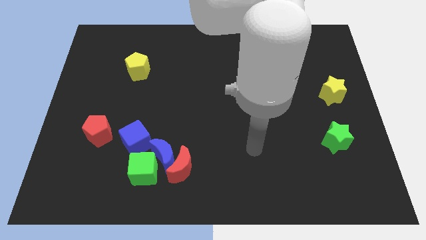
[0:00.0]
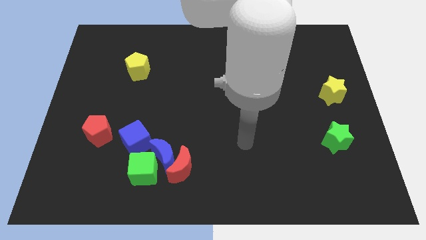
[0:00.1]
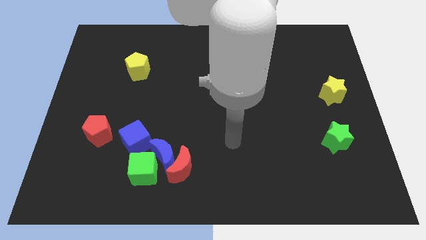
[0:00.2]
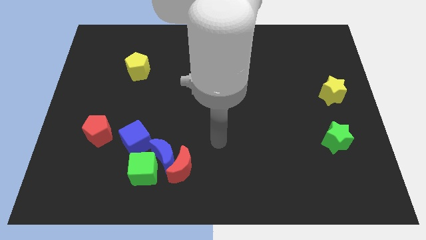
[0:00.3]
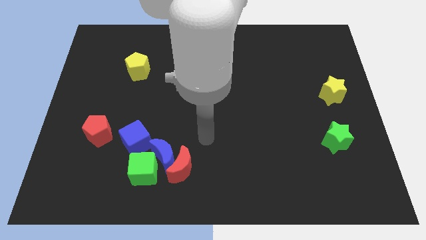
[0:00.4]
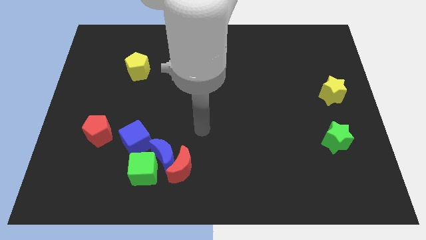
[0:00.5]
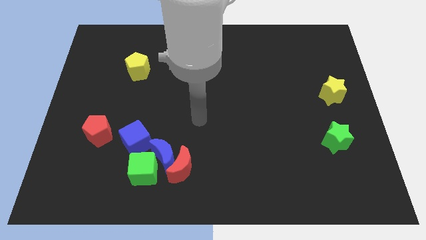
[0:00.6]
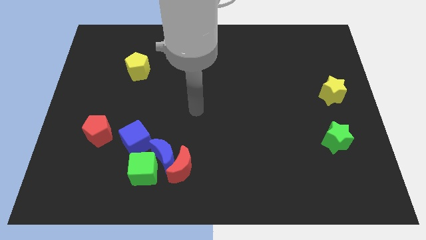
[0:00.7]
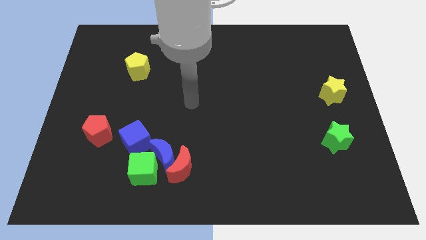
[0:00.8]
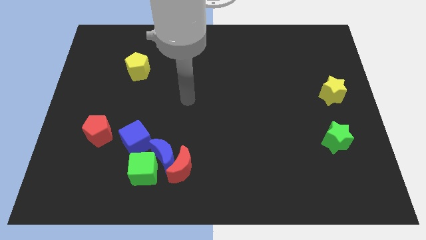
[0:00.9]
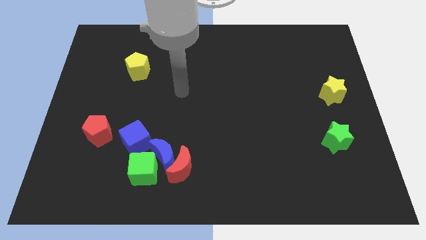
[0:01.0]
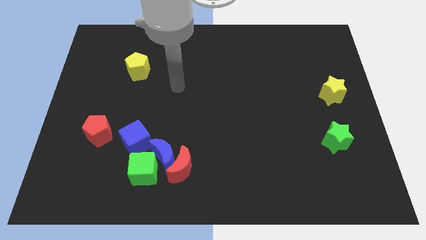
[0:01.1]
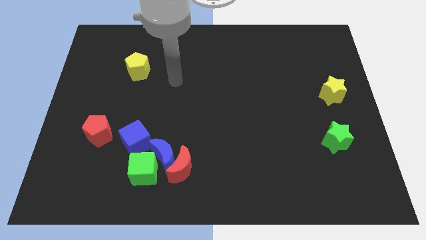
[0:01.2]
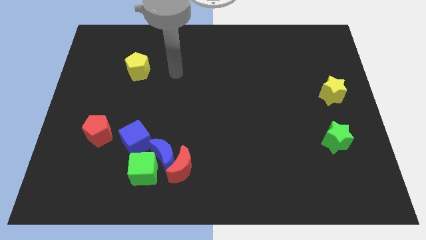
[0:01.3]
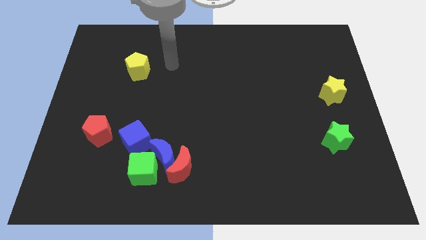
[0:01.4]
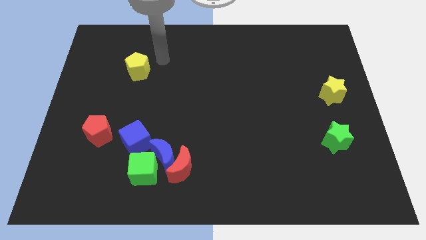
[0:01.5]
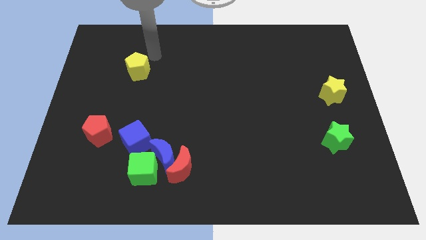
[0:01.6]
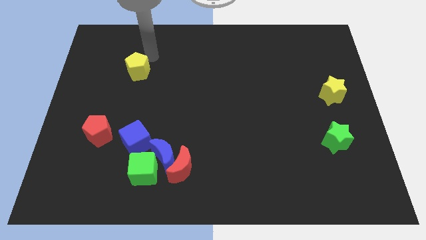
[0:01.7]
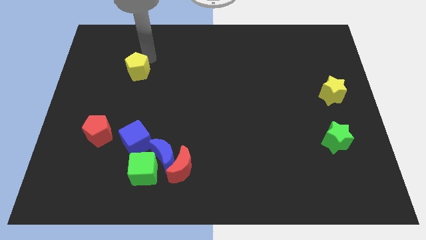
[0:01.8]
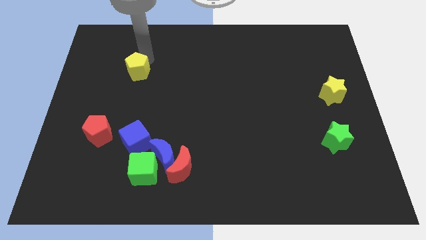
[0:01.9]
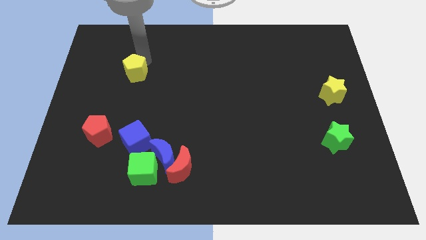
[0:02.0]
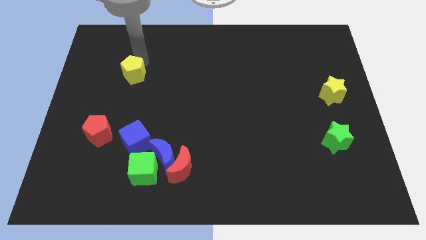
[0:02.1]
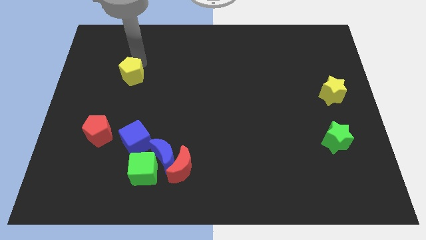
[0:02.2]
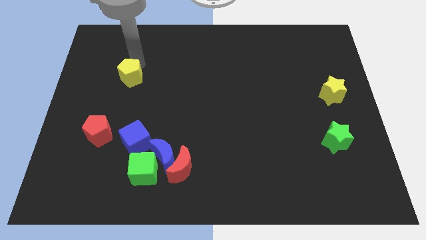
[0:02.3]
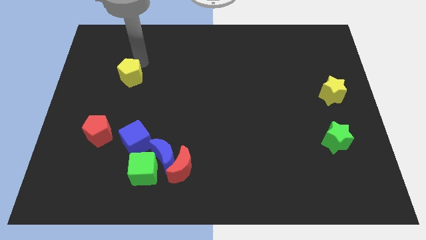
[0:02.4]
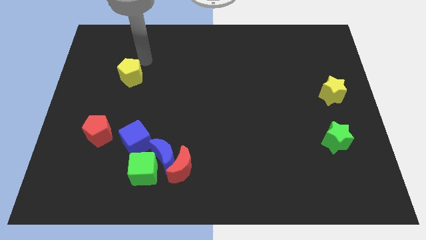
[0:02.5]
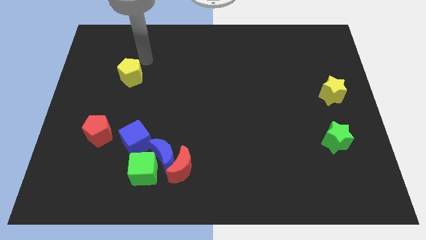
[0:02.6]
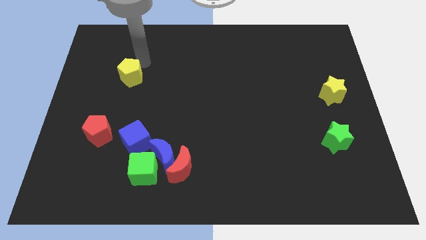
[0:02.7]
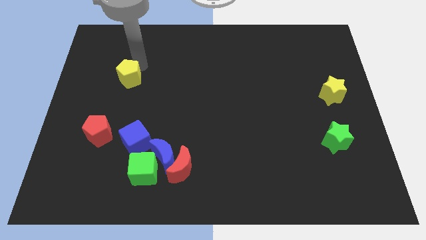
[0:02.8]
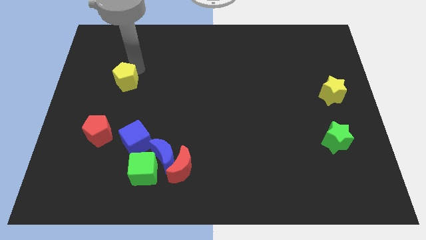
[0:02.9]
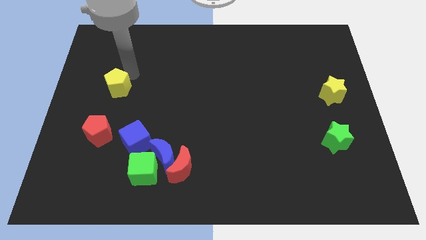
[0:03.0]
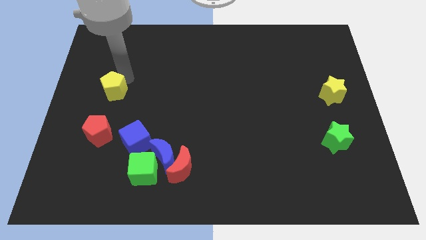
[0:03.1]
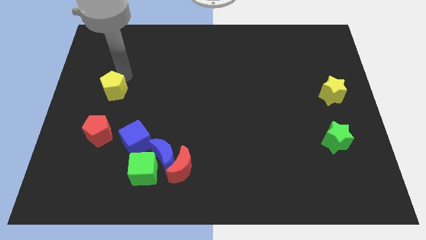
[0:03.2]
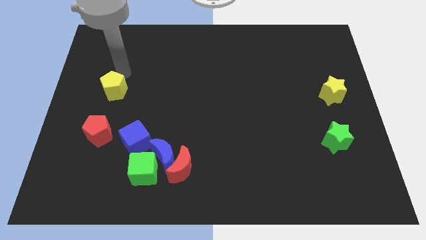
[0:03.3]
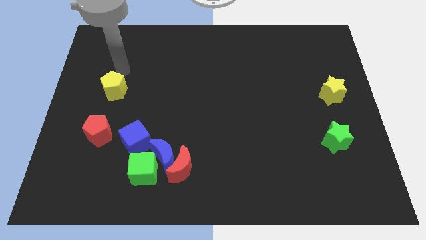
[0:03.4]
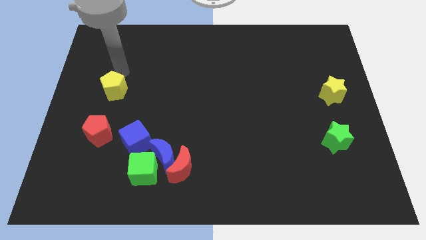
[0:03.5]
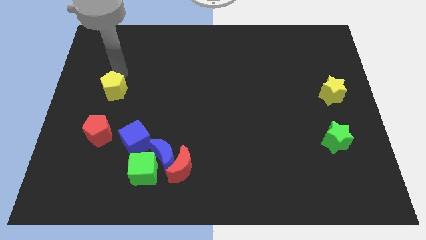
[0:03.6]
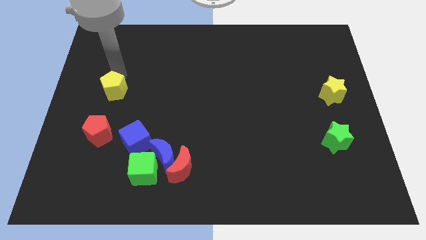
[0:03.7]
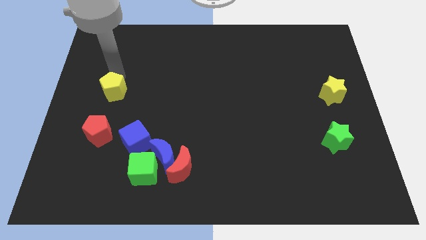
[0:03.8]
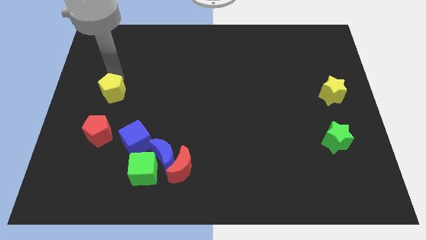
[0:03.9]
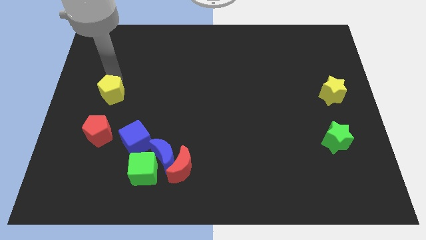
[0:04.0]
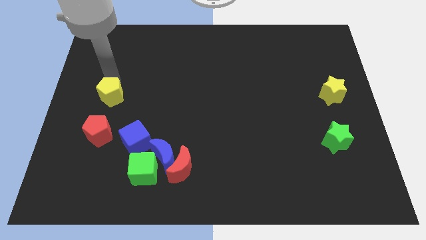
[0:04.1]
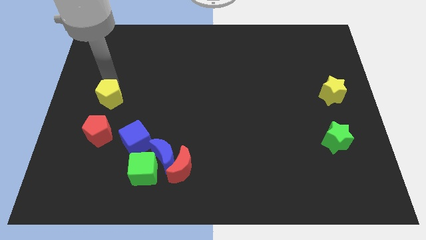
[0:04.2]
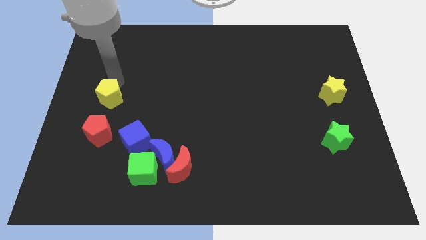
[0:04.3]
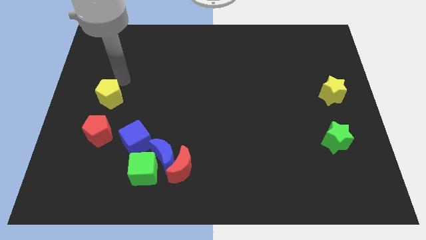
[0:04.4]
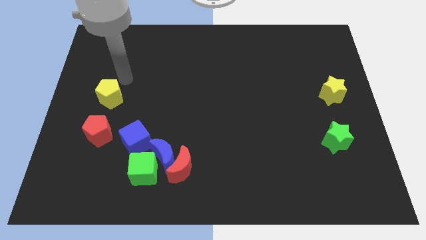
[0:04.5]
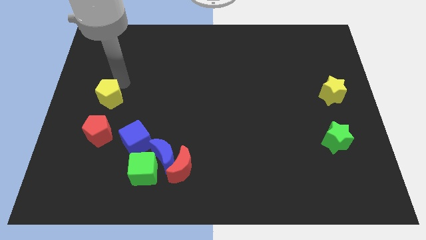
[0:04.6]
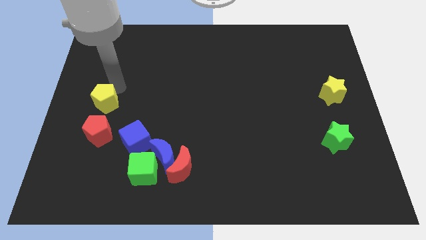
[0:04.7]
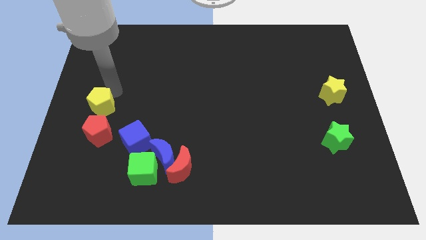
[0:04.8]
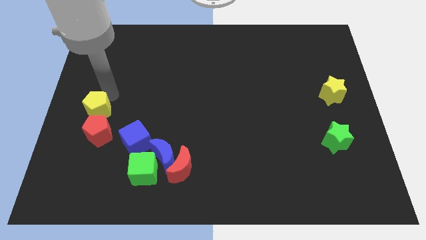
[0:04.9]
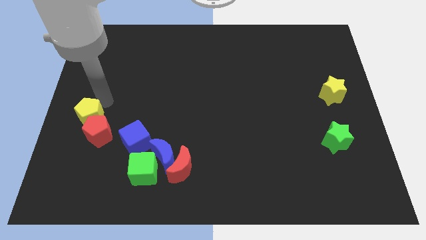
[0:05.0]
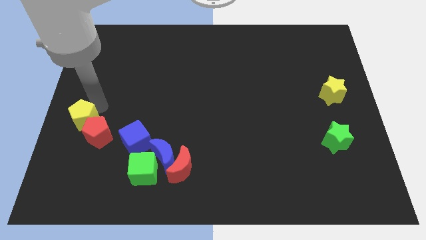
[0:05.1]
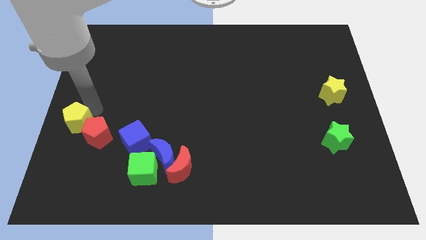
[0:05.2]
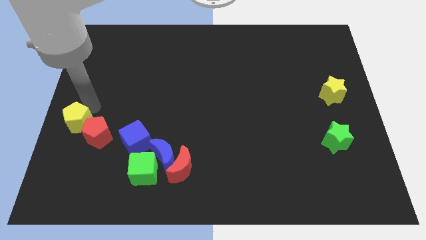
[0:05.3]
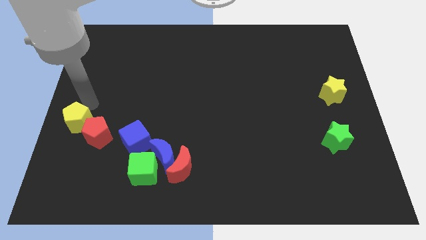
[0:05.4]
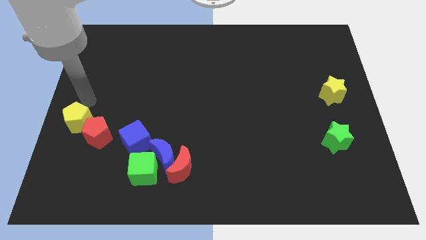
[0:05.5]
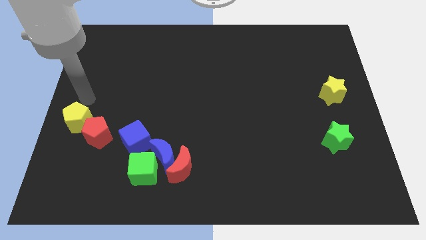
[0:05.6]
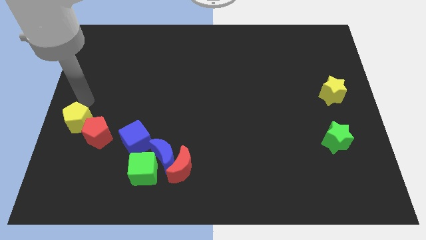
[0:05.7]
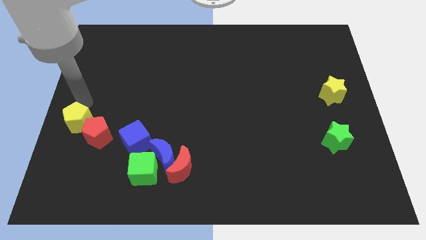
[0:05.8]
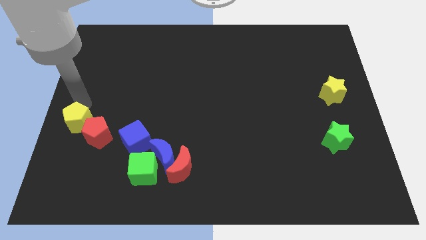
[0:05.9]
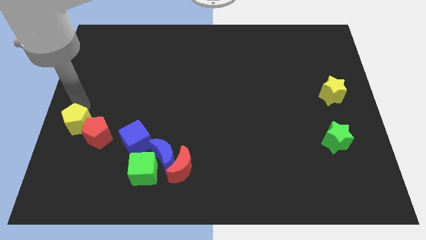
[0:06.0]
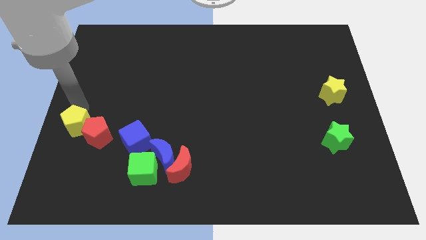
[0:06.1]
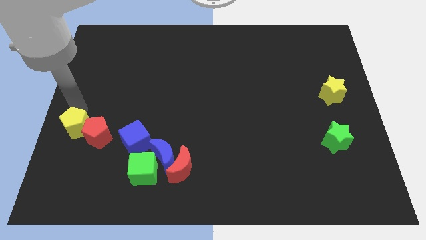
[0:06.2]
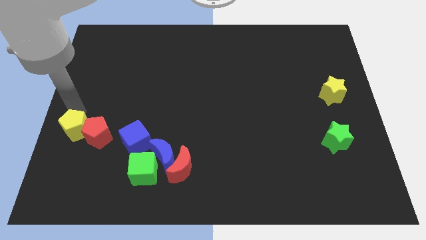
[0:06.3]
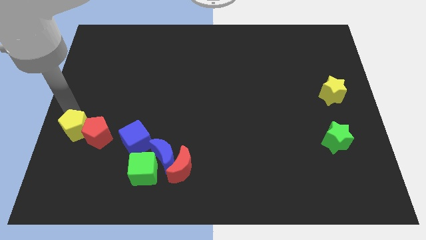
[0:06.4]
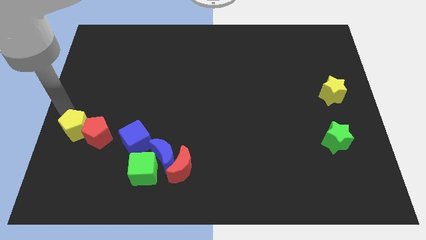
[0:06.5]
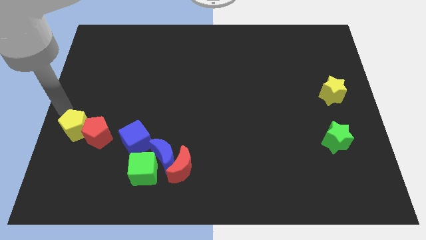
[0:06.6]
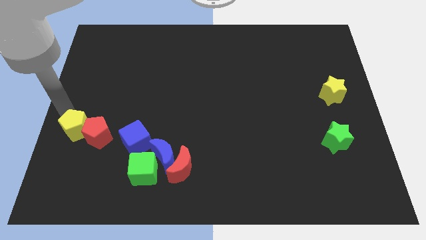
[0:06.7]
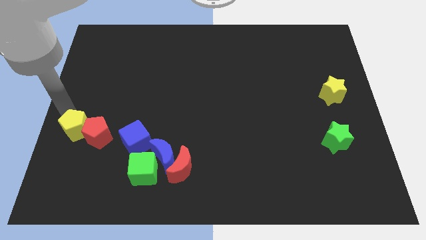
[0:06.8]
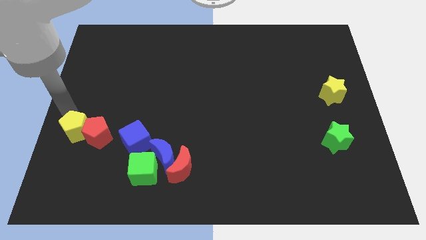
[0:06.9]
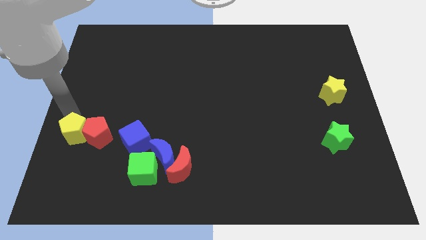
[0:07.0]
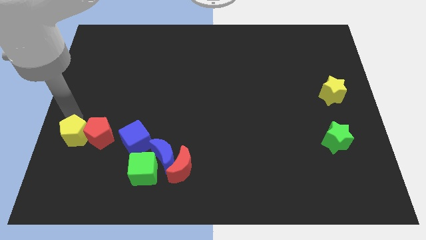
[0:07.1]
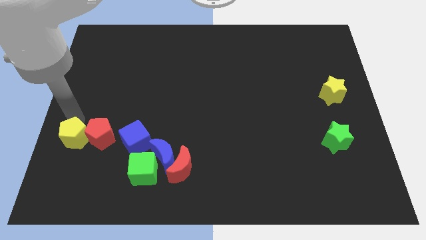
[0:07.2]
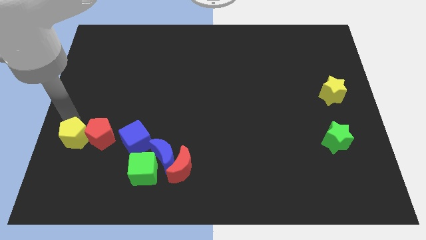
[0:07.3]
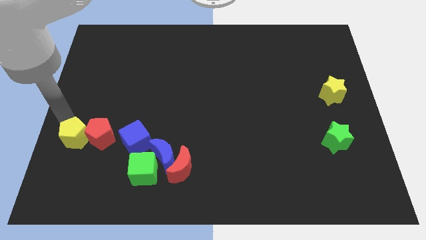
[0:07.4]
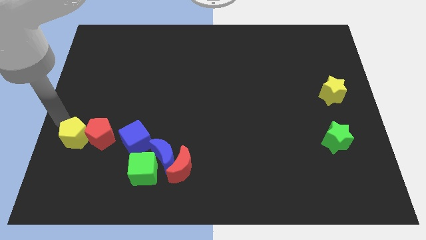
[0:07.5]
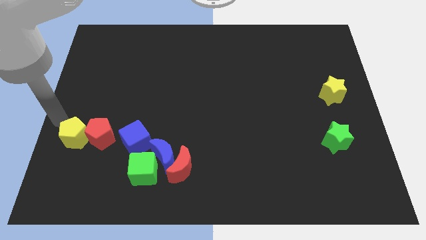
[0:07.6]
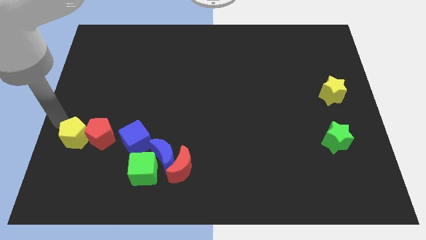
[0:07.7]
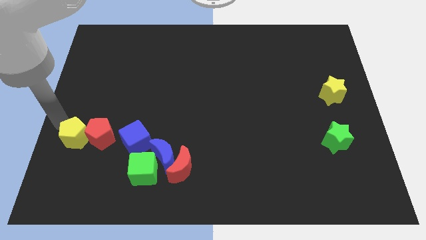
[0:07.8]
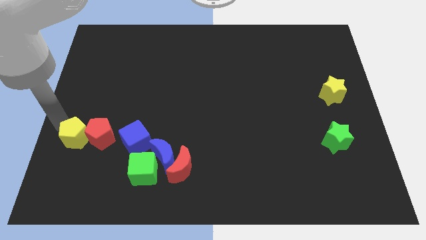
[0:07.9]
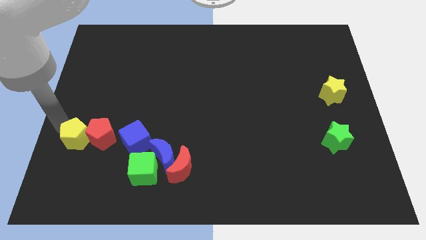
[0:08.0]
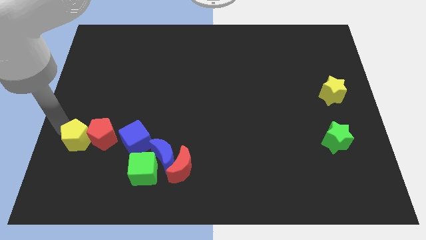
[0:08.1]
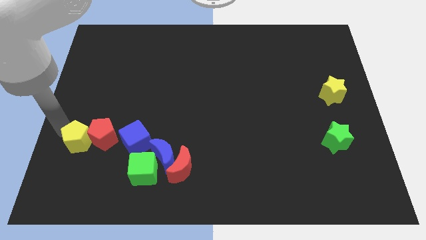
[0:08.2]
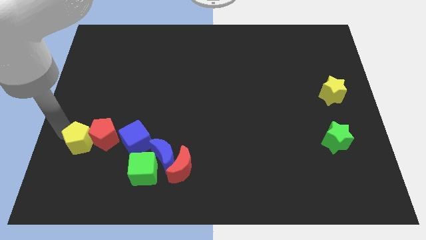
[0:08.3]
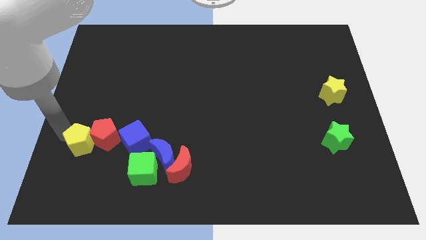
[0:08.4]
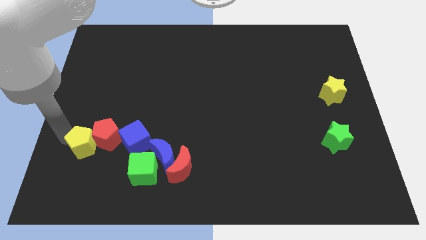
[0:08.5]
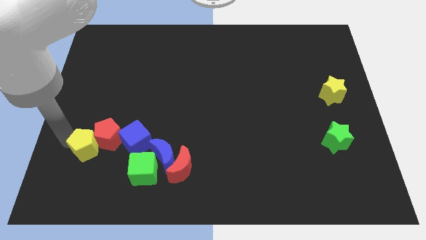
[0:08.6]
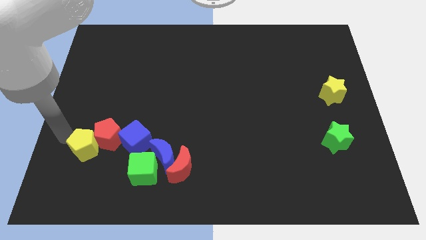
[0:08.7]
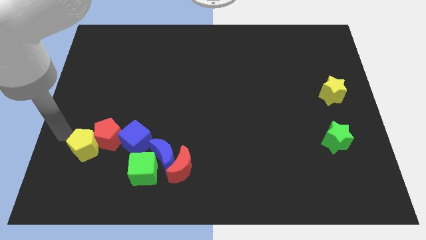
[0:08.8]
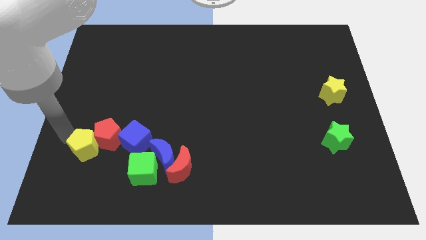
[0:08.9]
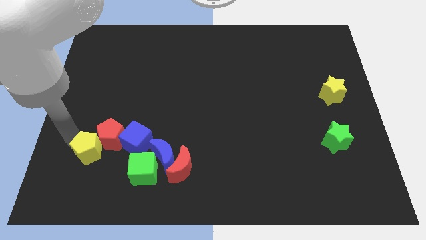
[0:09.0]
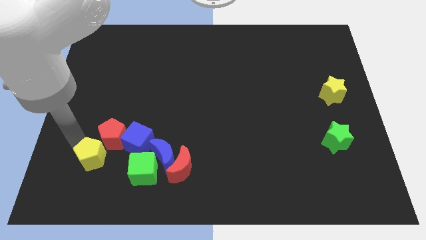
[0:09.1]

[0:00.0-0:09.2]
move the yellow pentagon diagonally down and to the left of the blue cube
